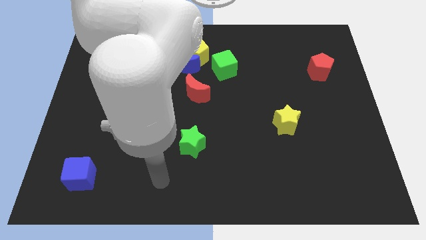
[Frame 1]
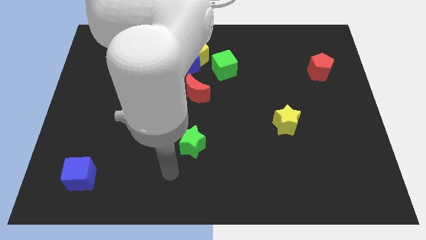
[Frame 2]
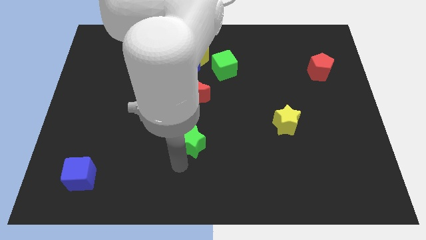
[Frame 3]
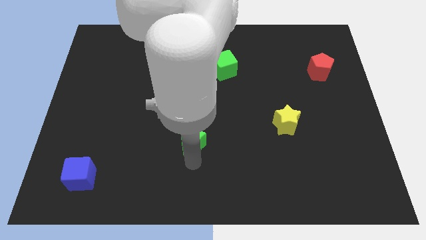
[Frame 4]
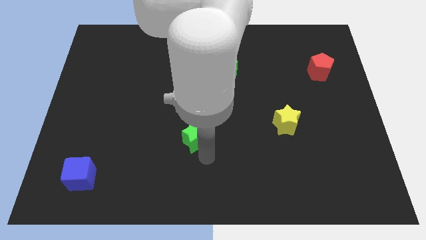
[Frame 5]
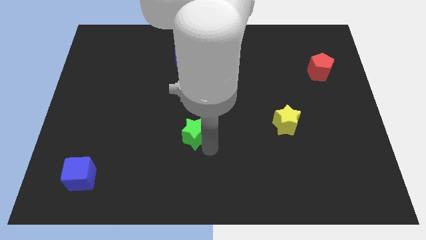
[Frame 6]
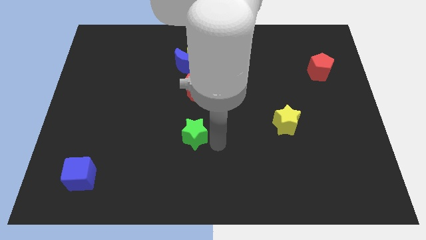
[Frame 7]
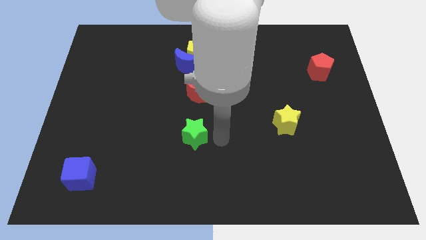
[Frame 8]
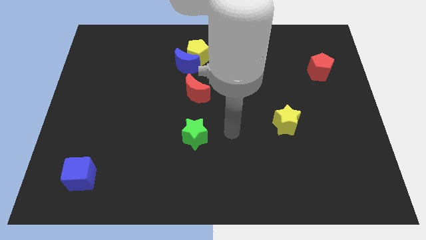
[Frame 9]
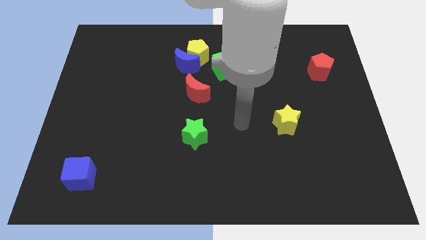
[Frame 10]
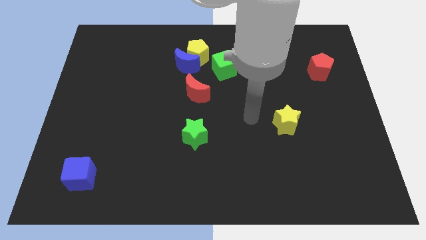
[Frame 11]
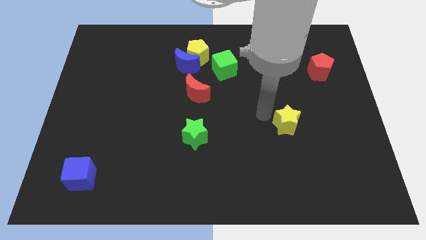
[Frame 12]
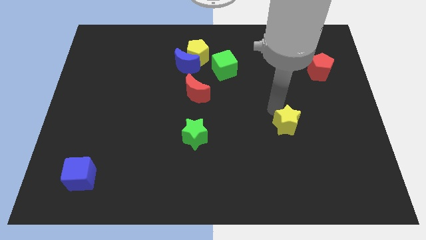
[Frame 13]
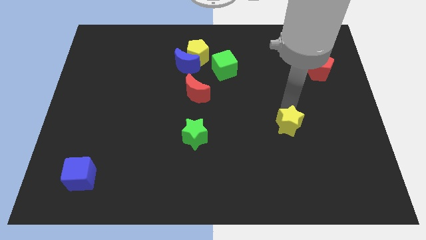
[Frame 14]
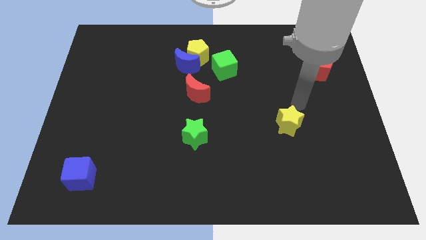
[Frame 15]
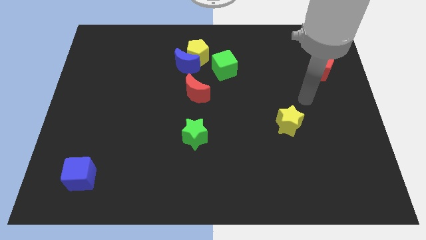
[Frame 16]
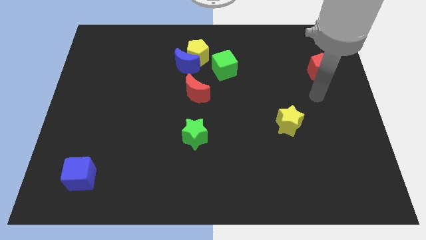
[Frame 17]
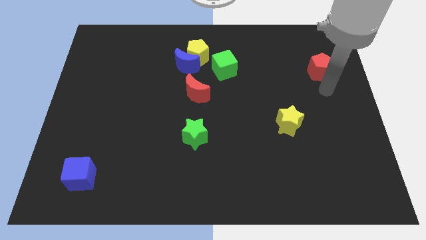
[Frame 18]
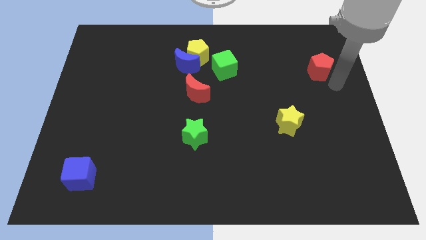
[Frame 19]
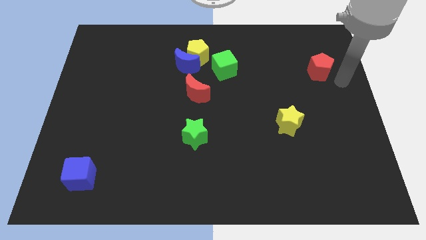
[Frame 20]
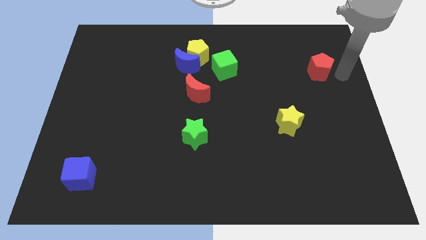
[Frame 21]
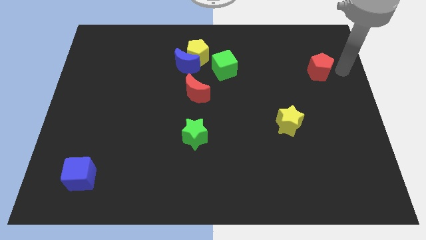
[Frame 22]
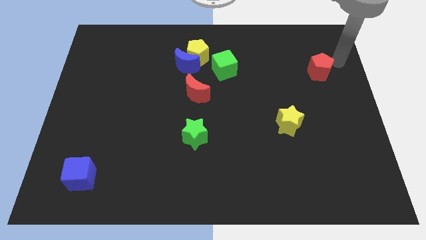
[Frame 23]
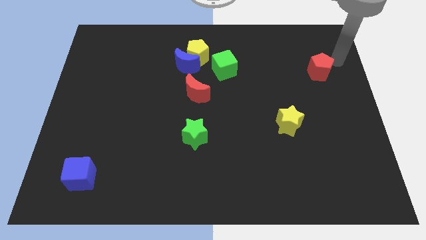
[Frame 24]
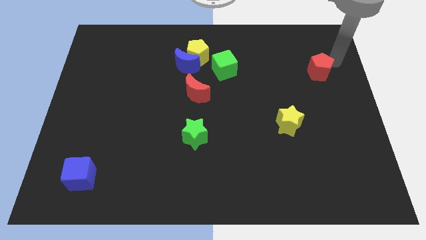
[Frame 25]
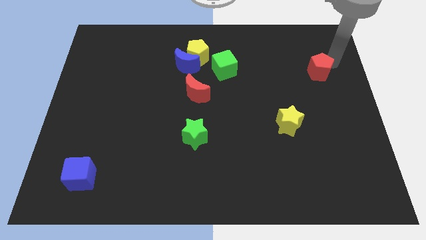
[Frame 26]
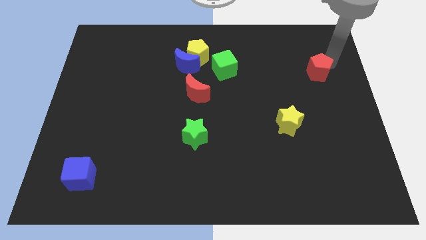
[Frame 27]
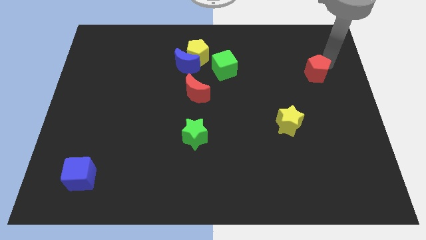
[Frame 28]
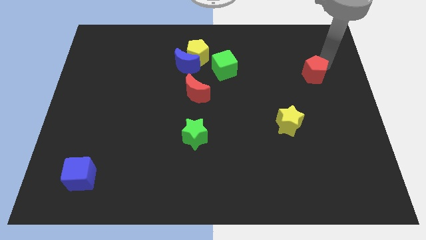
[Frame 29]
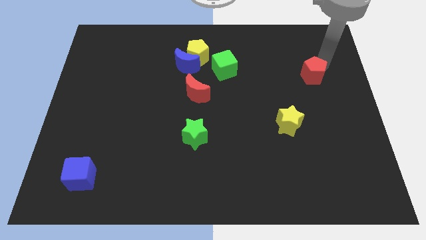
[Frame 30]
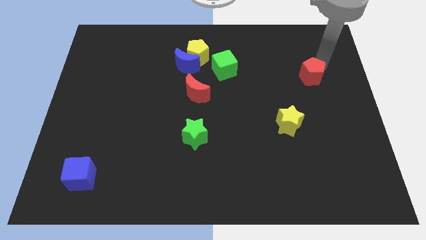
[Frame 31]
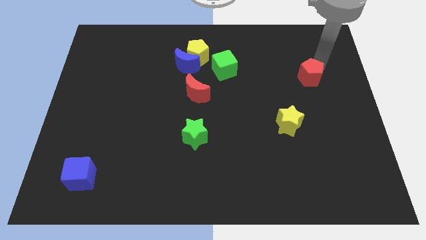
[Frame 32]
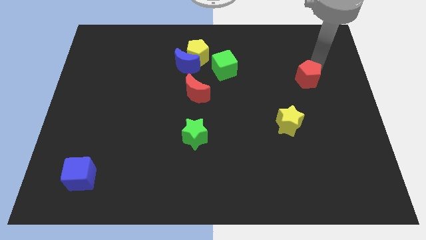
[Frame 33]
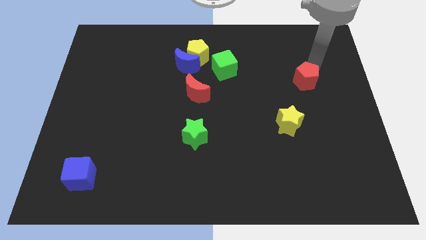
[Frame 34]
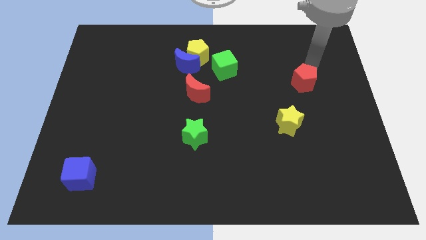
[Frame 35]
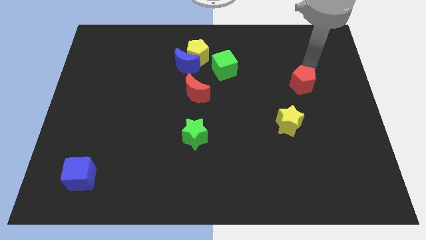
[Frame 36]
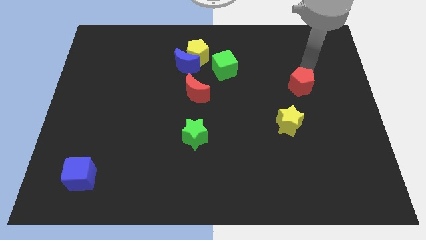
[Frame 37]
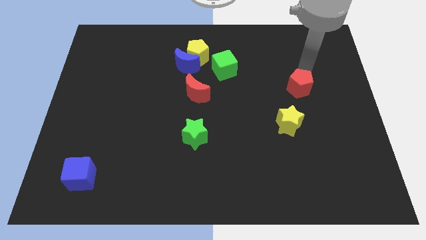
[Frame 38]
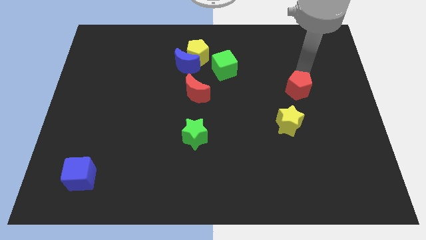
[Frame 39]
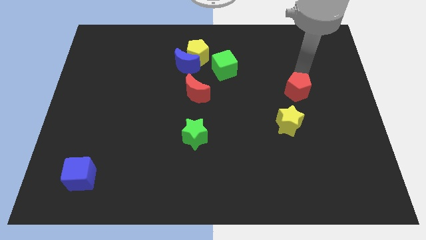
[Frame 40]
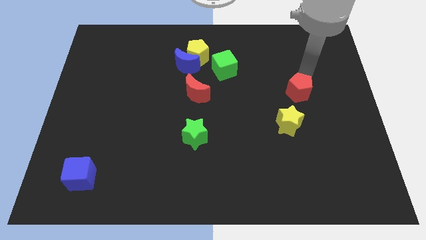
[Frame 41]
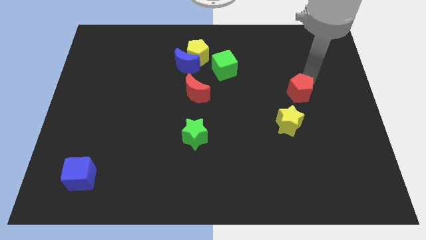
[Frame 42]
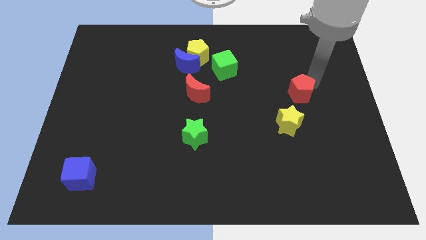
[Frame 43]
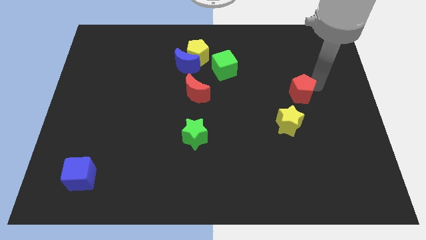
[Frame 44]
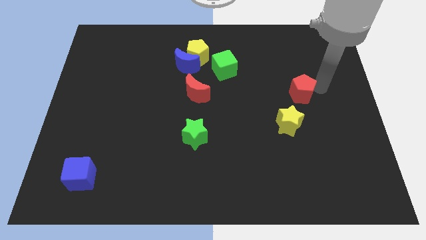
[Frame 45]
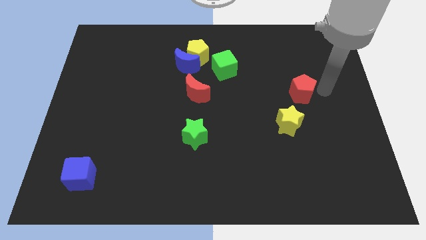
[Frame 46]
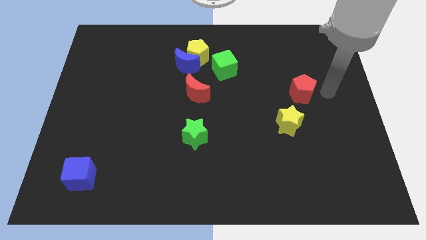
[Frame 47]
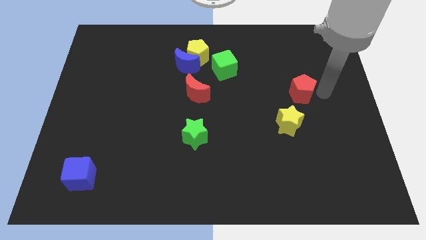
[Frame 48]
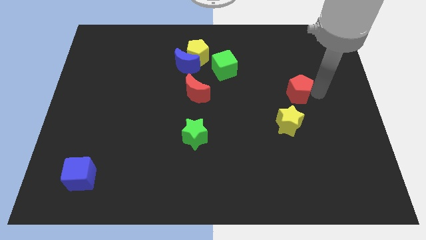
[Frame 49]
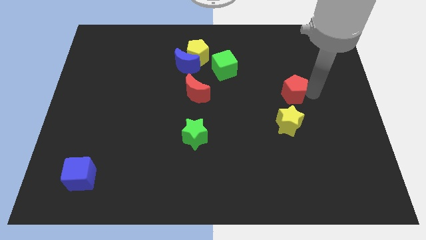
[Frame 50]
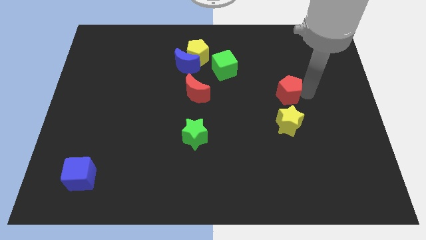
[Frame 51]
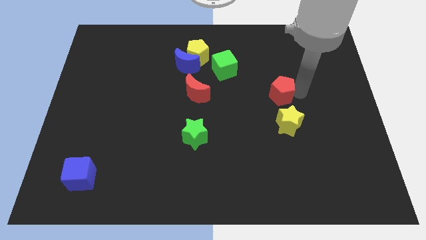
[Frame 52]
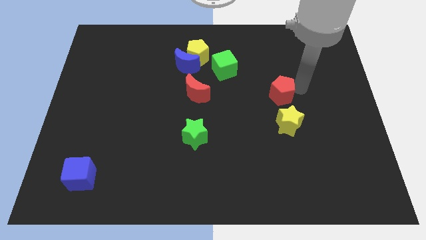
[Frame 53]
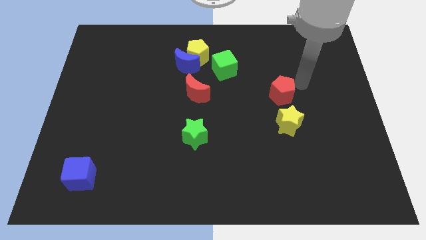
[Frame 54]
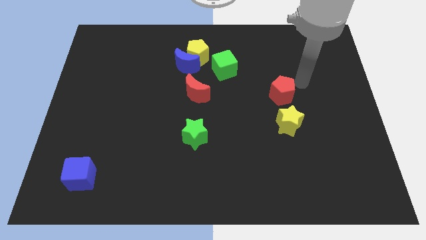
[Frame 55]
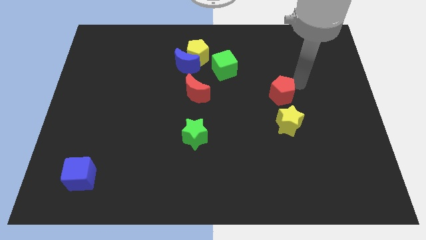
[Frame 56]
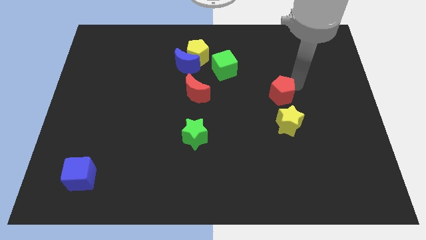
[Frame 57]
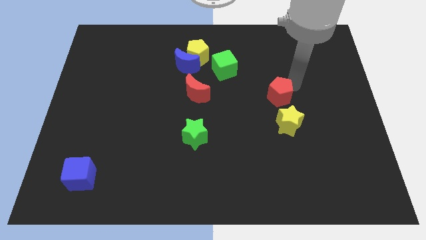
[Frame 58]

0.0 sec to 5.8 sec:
slide the red pentagon diagonally up and to the left of the yellow star

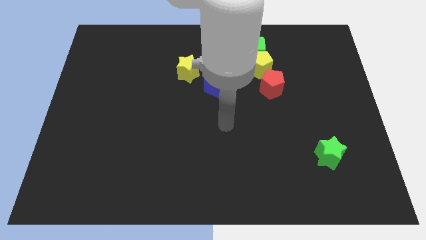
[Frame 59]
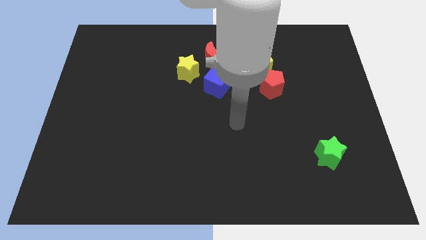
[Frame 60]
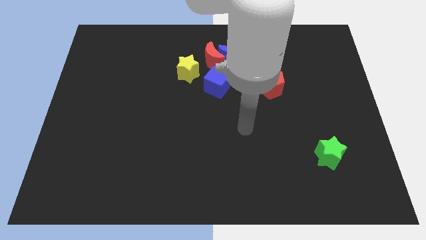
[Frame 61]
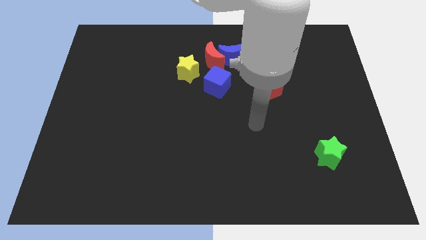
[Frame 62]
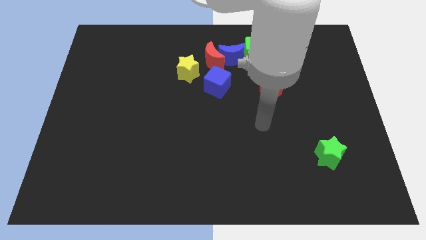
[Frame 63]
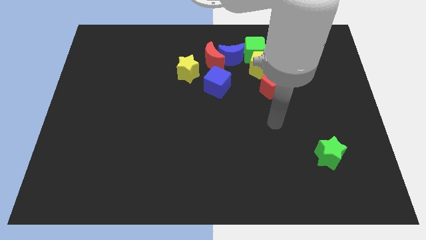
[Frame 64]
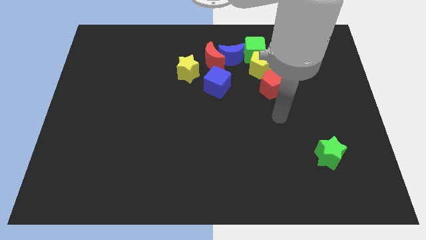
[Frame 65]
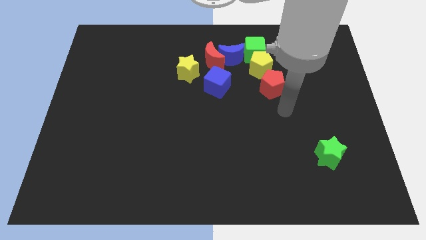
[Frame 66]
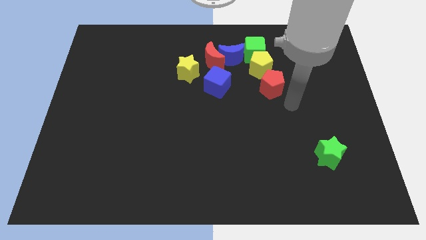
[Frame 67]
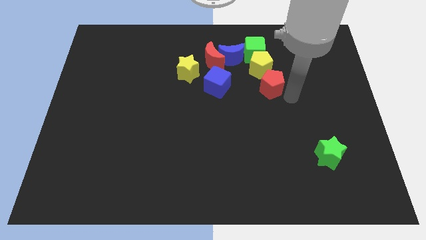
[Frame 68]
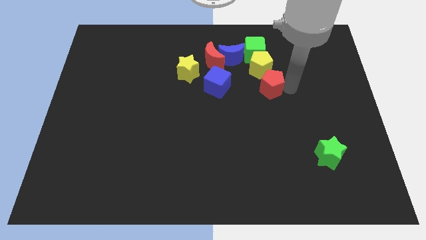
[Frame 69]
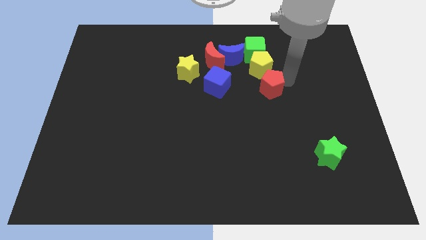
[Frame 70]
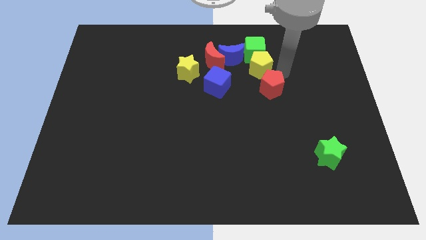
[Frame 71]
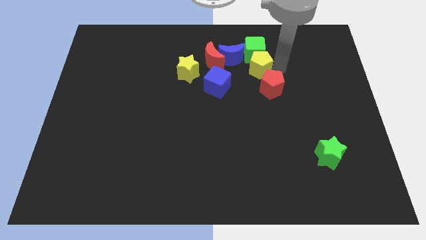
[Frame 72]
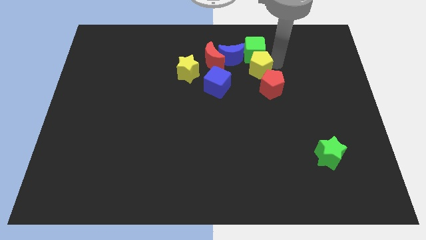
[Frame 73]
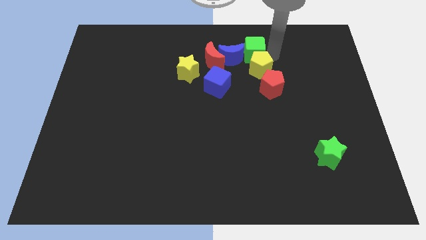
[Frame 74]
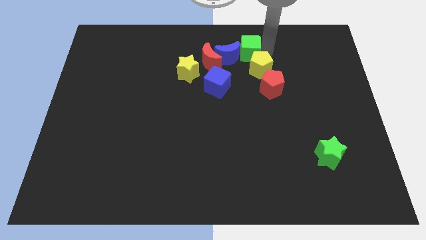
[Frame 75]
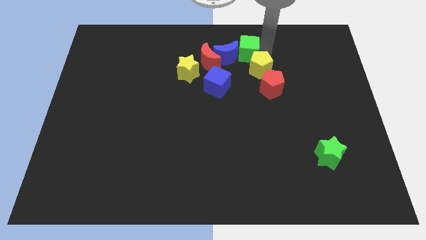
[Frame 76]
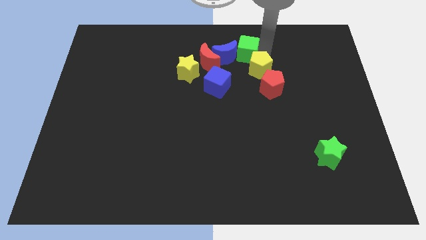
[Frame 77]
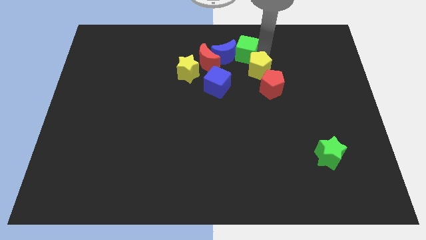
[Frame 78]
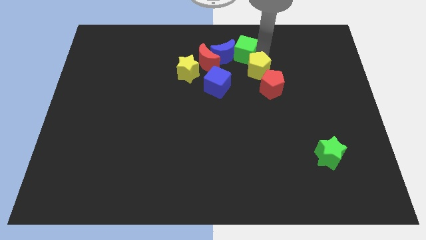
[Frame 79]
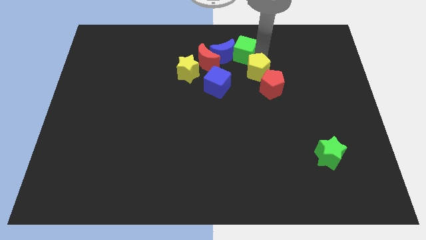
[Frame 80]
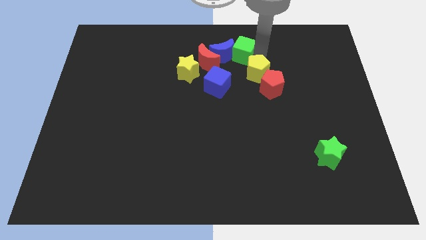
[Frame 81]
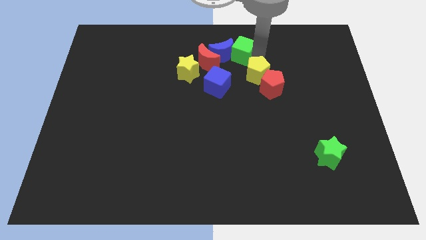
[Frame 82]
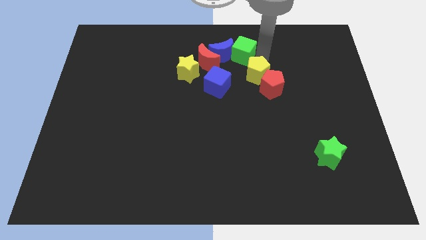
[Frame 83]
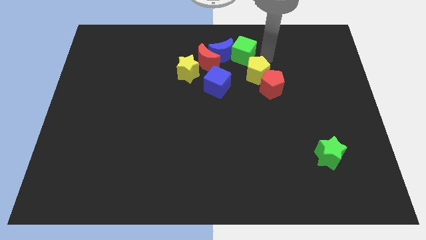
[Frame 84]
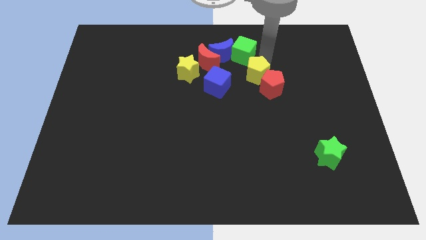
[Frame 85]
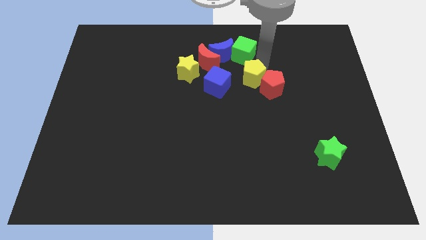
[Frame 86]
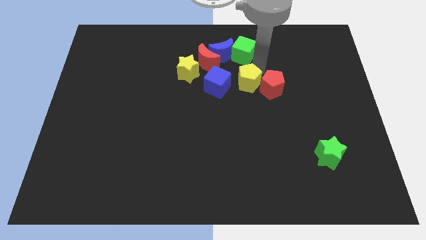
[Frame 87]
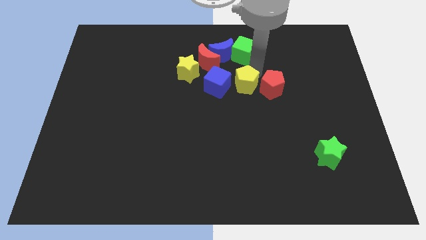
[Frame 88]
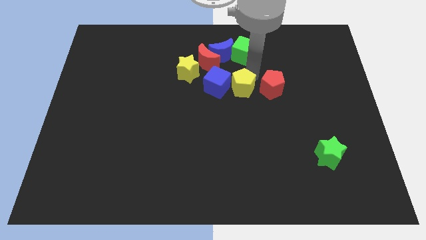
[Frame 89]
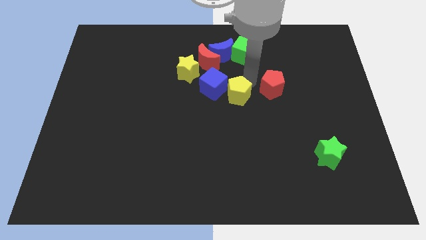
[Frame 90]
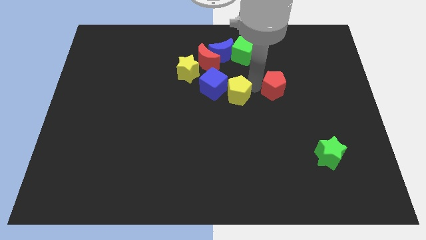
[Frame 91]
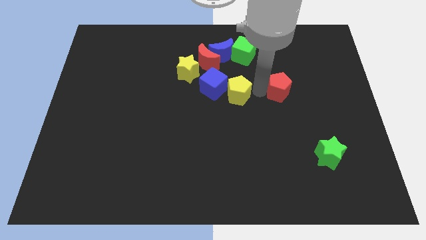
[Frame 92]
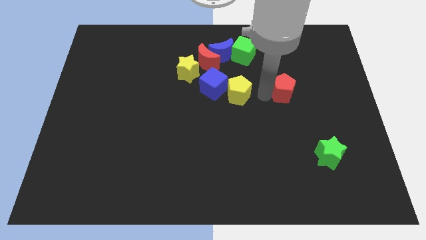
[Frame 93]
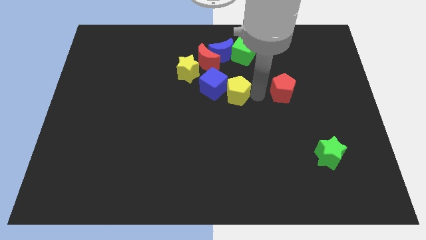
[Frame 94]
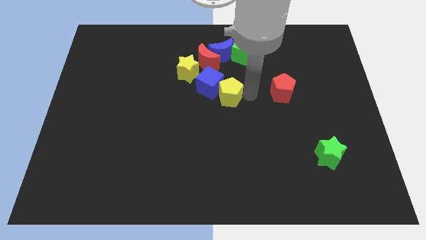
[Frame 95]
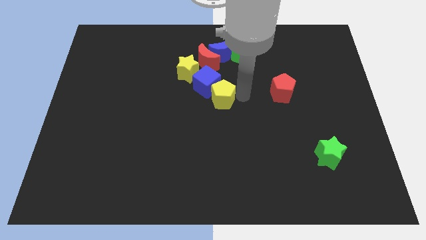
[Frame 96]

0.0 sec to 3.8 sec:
push the yellow pentagon to the bottom side of the red moon
